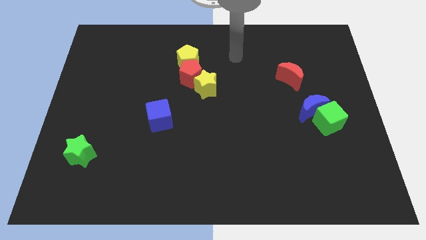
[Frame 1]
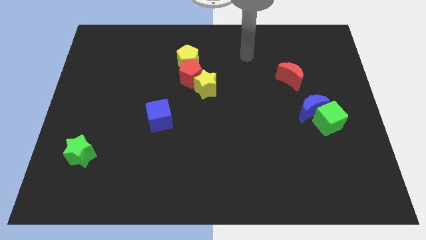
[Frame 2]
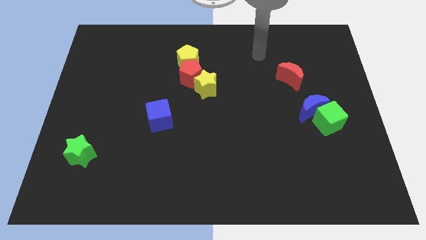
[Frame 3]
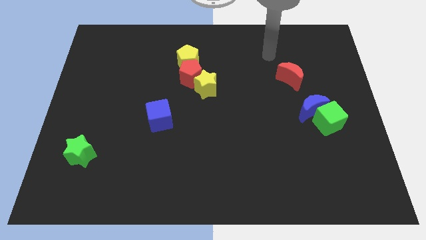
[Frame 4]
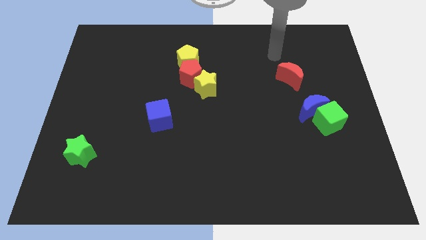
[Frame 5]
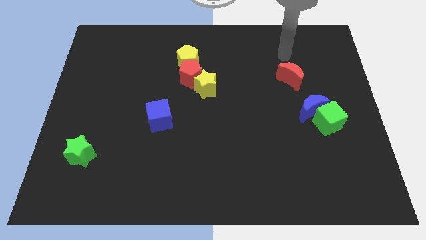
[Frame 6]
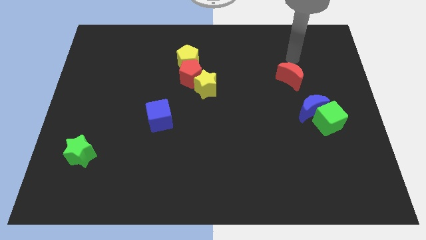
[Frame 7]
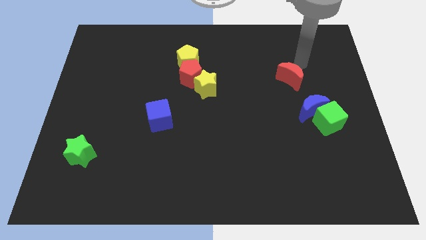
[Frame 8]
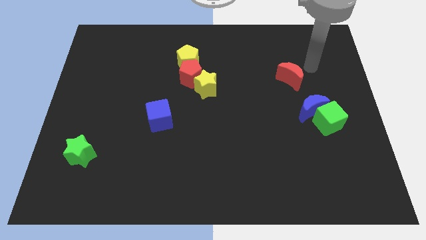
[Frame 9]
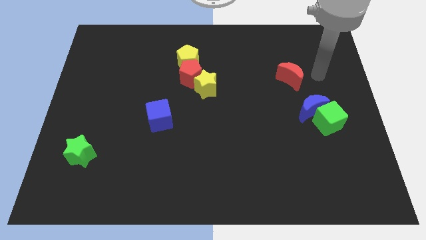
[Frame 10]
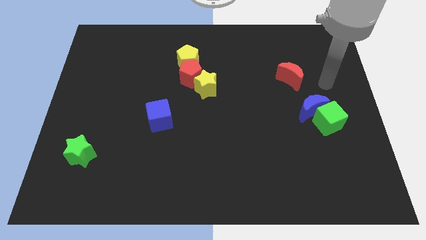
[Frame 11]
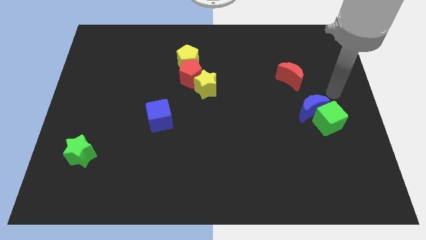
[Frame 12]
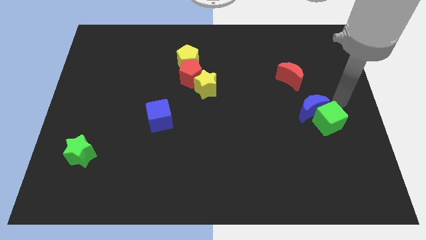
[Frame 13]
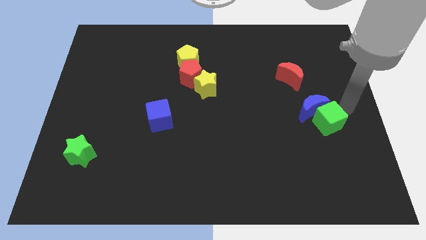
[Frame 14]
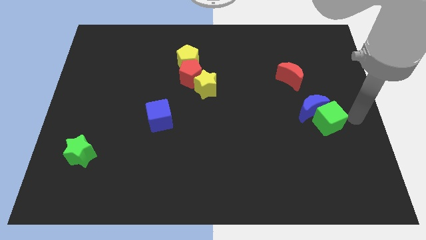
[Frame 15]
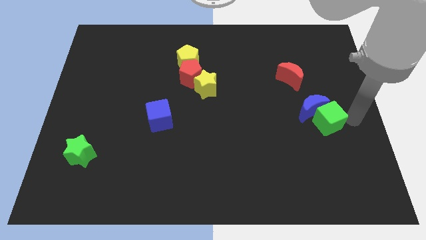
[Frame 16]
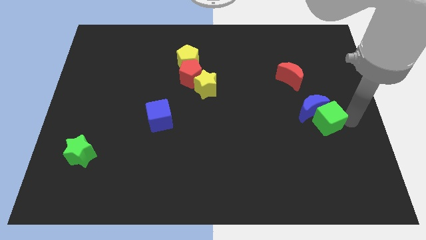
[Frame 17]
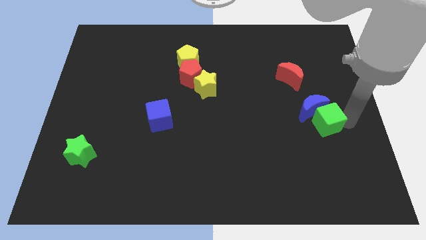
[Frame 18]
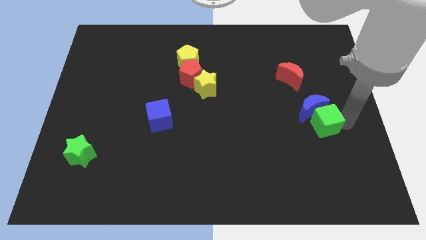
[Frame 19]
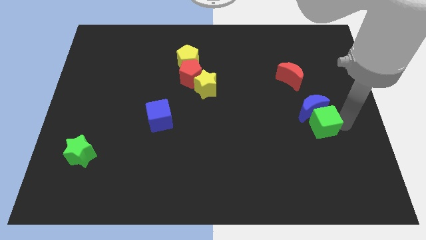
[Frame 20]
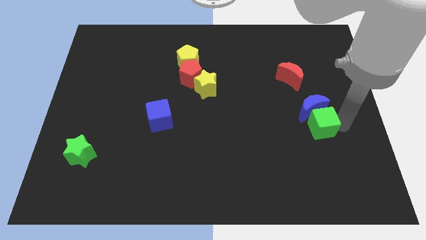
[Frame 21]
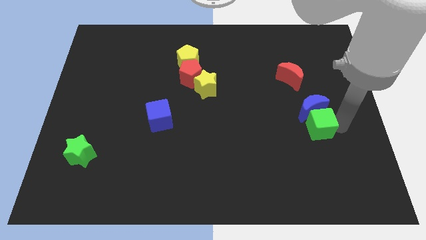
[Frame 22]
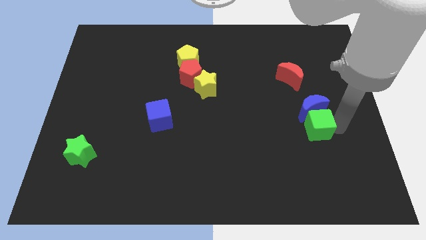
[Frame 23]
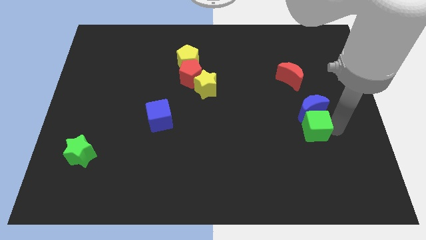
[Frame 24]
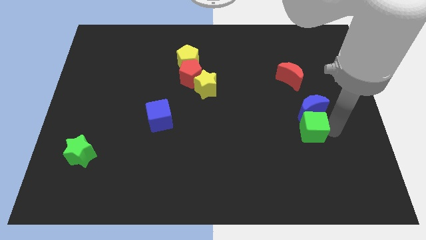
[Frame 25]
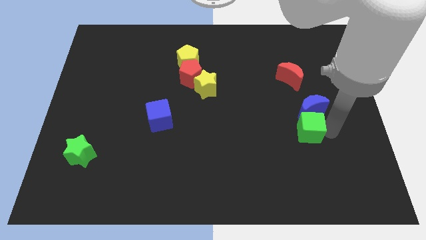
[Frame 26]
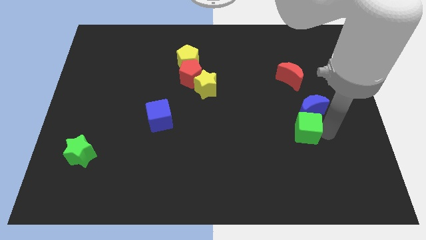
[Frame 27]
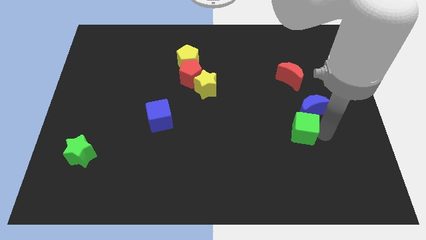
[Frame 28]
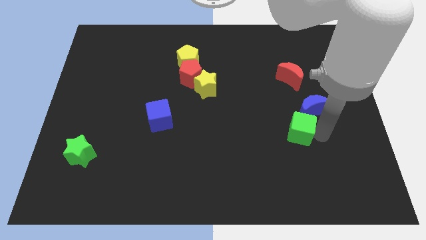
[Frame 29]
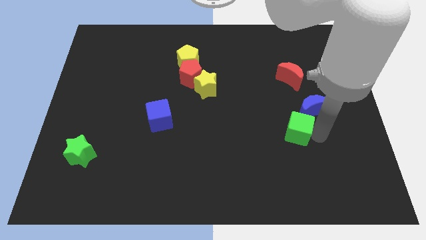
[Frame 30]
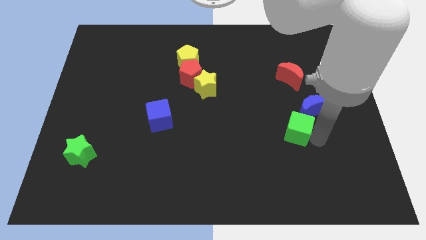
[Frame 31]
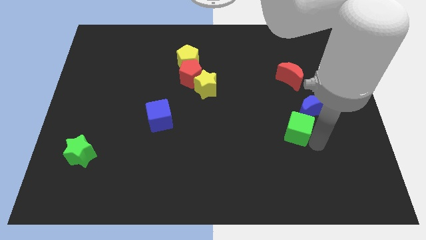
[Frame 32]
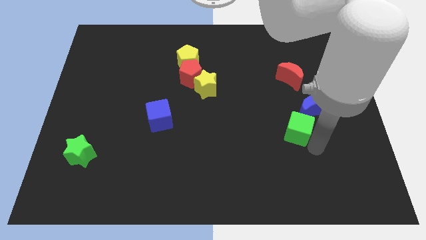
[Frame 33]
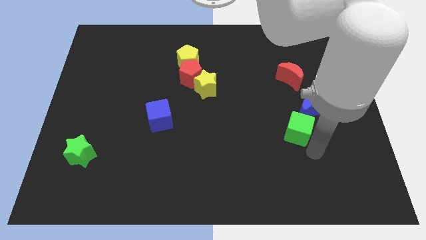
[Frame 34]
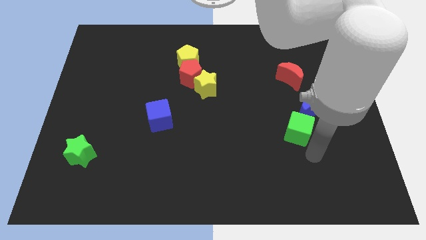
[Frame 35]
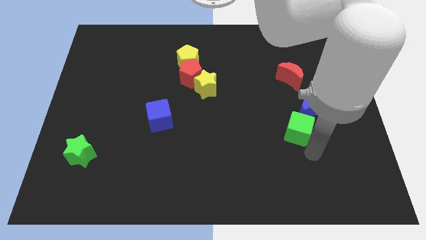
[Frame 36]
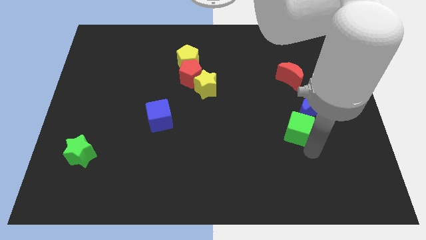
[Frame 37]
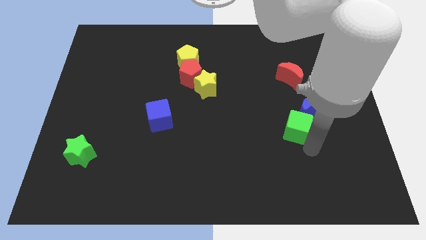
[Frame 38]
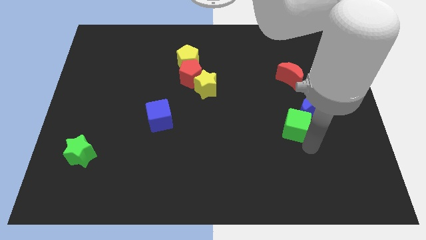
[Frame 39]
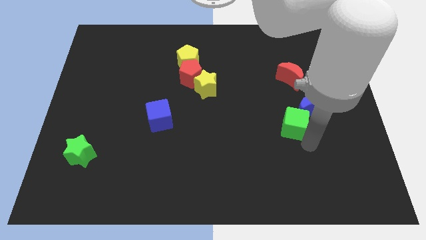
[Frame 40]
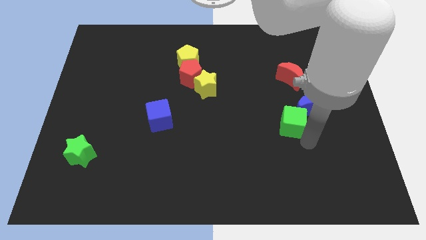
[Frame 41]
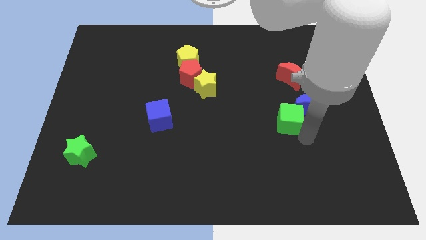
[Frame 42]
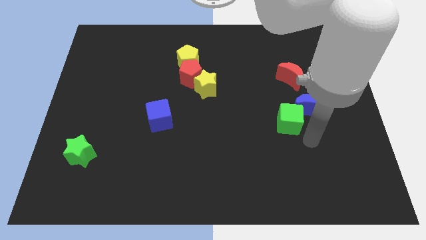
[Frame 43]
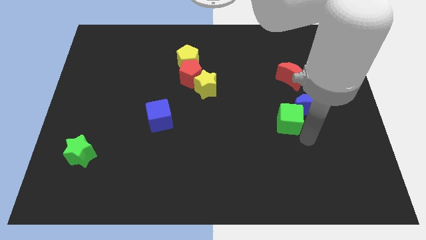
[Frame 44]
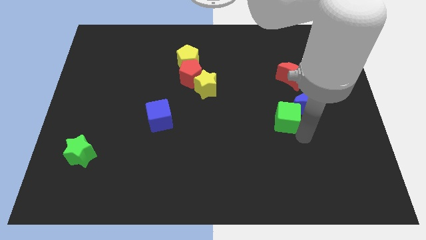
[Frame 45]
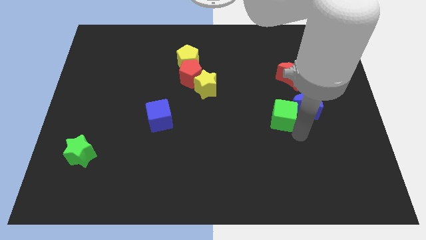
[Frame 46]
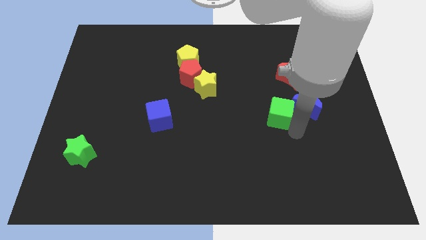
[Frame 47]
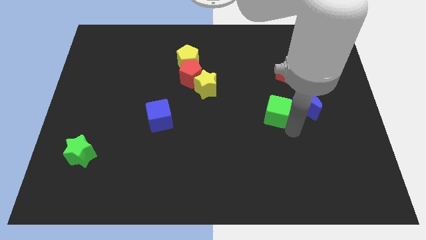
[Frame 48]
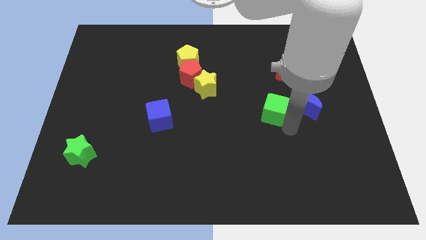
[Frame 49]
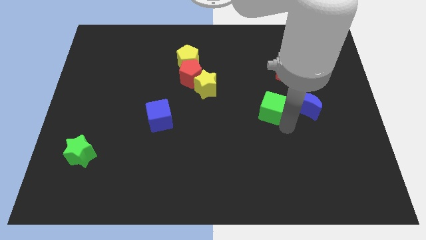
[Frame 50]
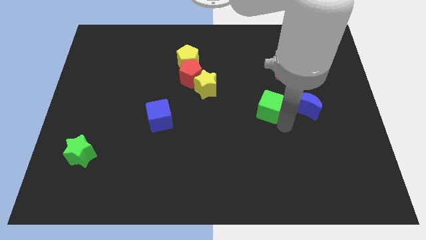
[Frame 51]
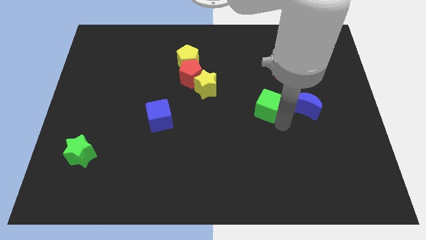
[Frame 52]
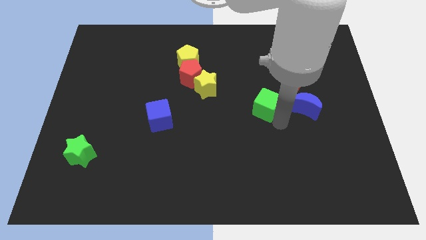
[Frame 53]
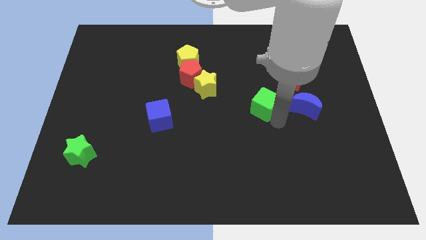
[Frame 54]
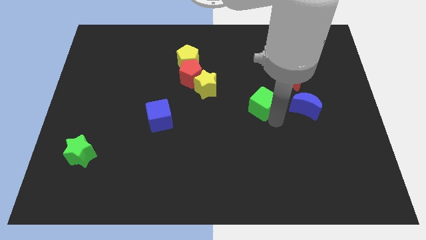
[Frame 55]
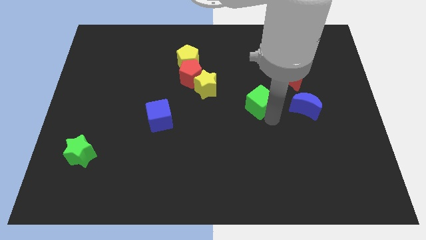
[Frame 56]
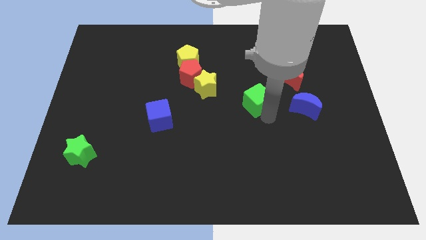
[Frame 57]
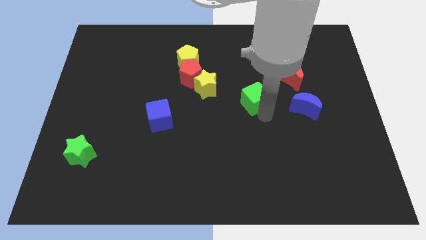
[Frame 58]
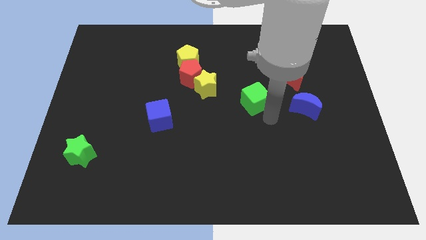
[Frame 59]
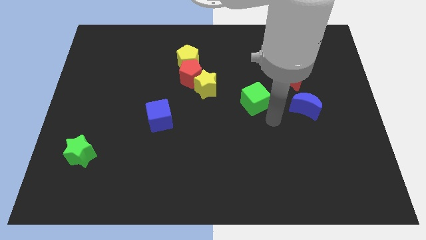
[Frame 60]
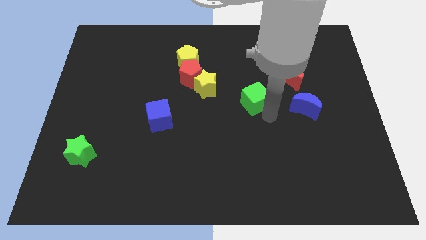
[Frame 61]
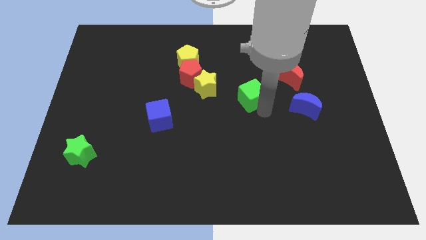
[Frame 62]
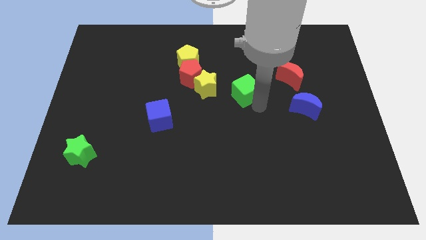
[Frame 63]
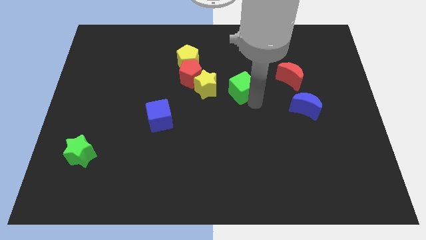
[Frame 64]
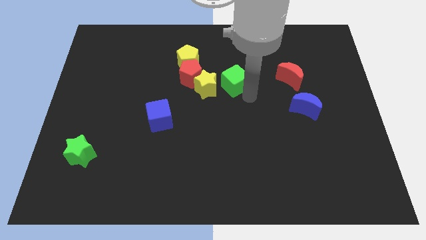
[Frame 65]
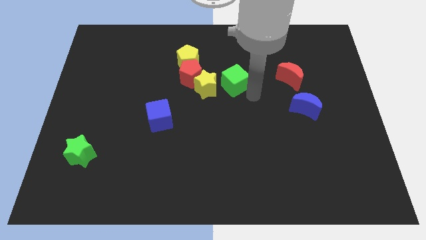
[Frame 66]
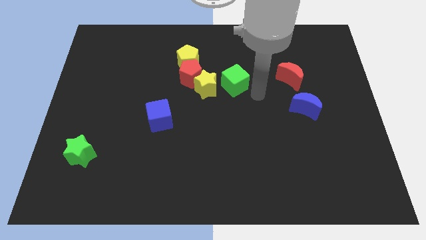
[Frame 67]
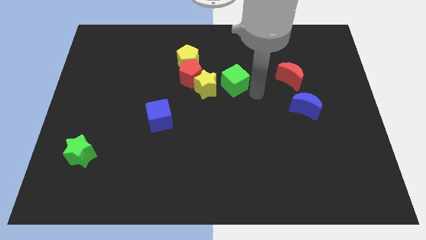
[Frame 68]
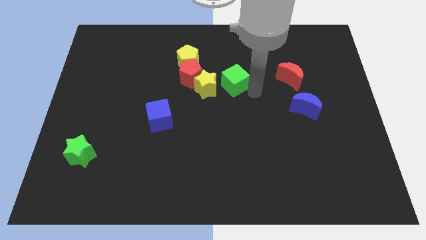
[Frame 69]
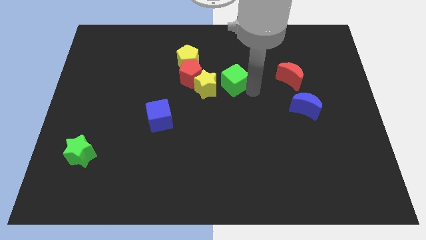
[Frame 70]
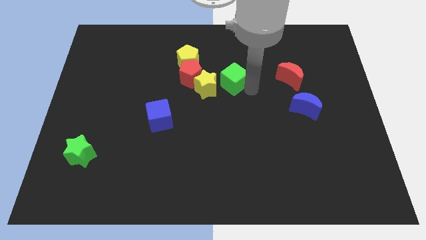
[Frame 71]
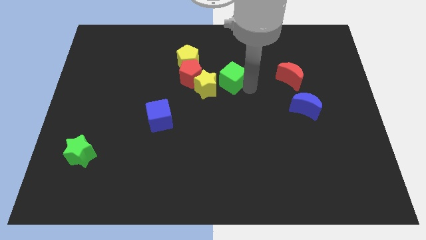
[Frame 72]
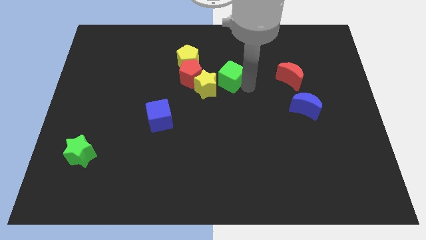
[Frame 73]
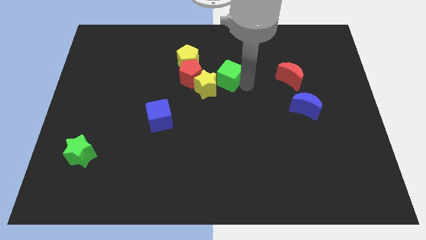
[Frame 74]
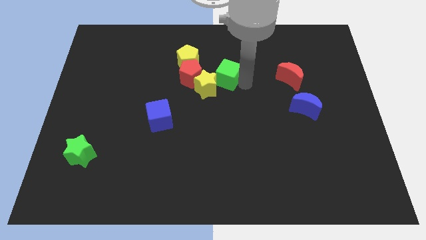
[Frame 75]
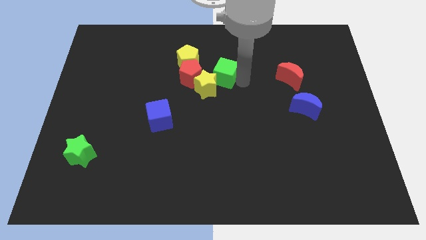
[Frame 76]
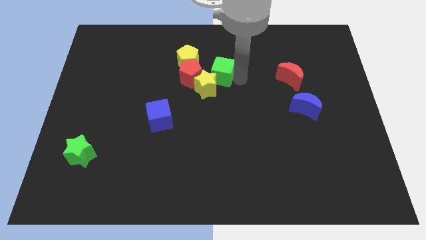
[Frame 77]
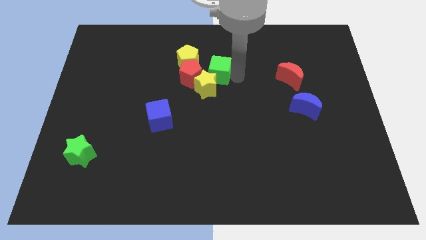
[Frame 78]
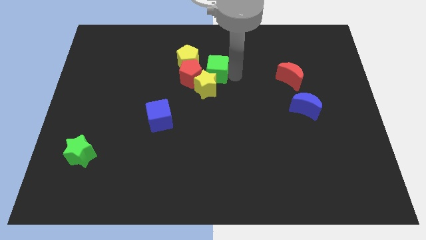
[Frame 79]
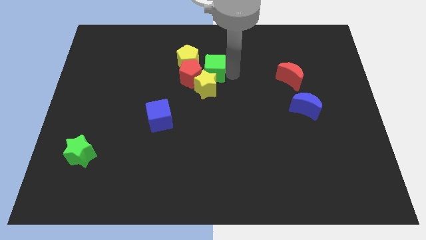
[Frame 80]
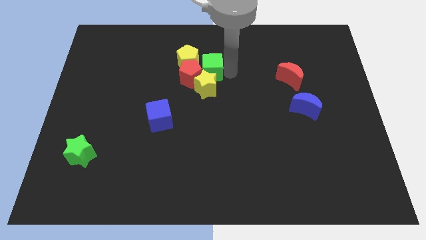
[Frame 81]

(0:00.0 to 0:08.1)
slide the green cube next to the red pentagon
